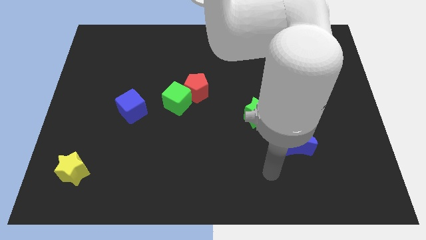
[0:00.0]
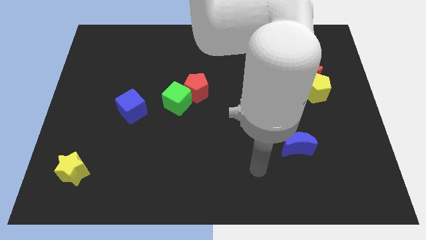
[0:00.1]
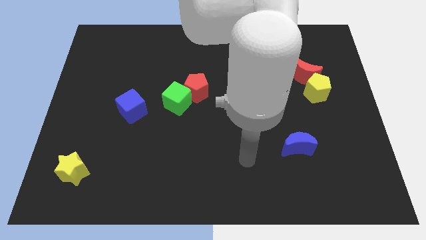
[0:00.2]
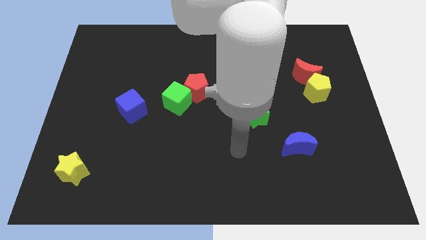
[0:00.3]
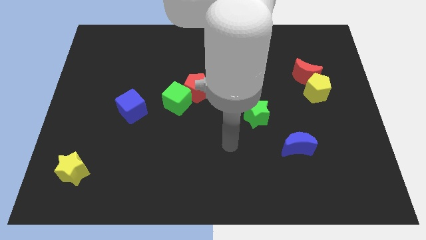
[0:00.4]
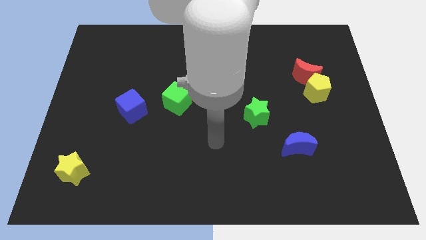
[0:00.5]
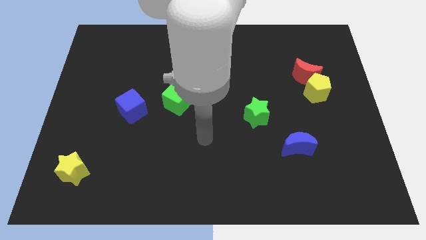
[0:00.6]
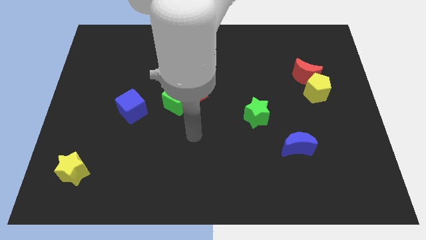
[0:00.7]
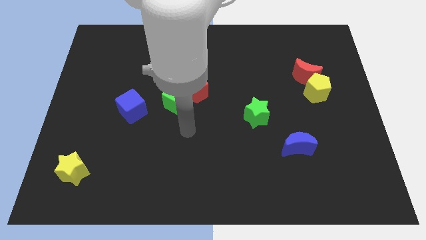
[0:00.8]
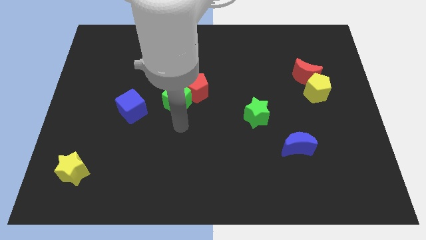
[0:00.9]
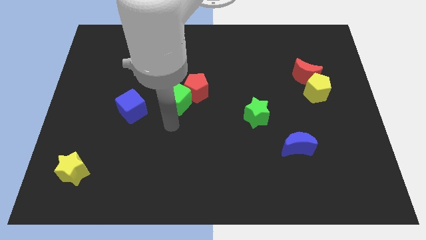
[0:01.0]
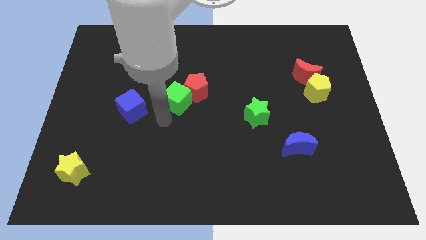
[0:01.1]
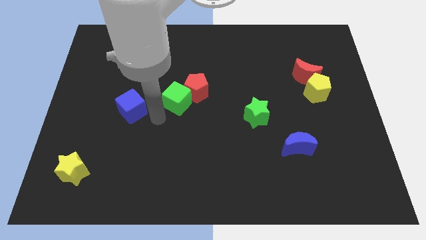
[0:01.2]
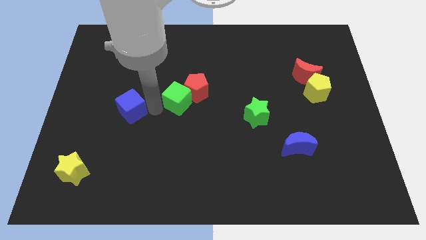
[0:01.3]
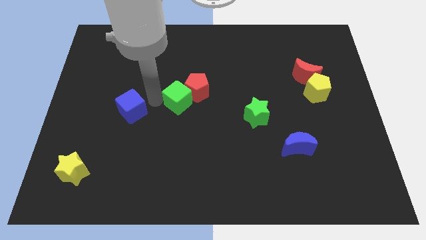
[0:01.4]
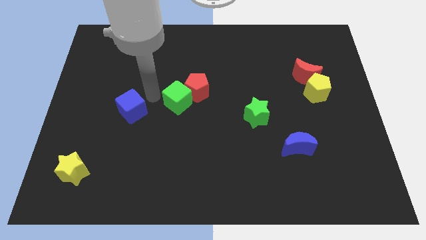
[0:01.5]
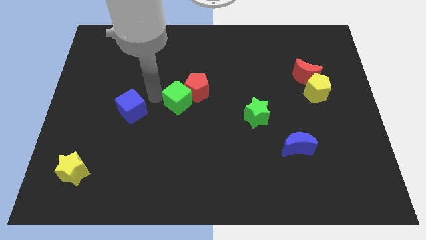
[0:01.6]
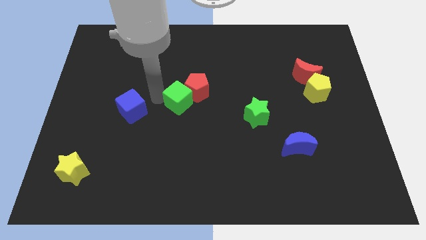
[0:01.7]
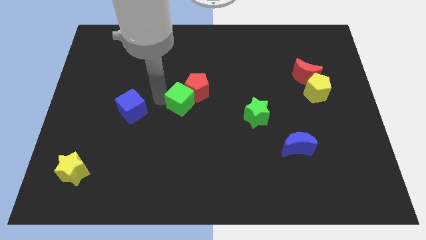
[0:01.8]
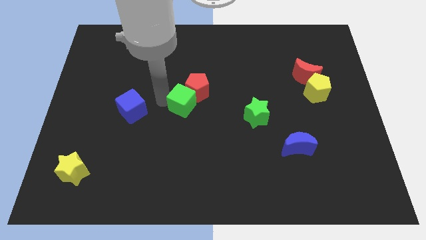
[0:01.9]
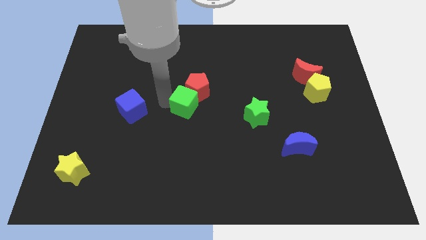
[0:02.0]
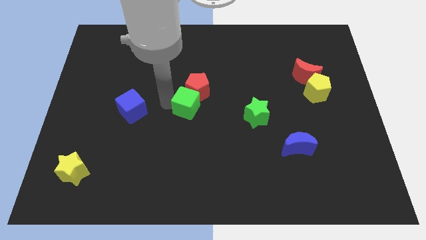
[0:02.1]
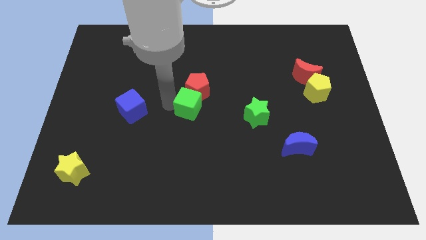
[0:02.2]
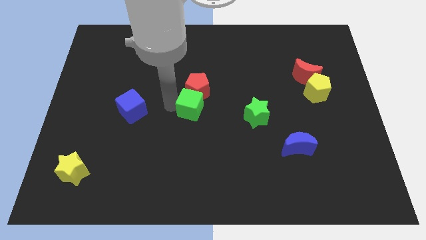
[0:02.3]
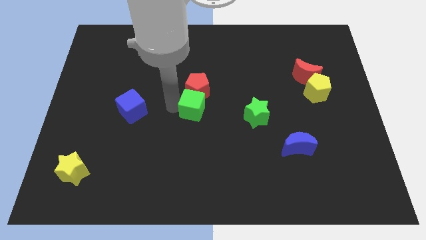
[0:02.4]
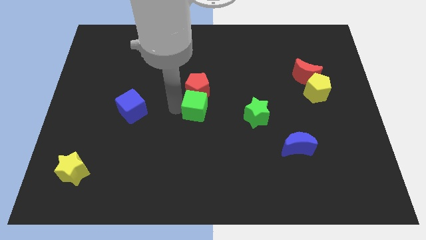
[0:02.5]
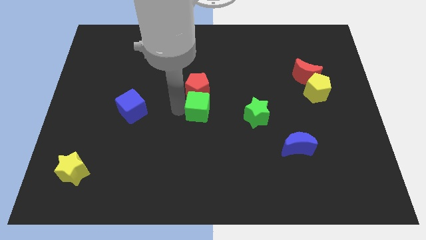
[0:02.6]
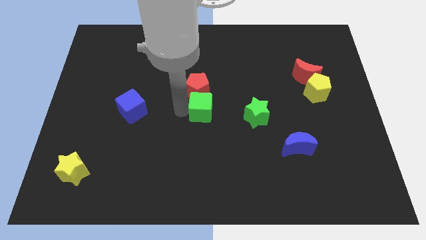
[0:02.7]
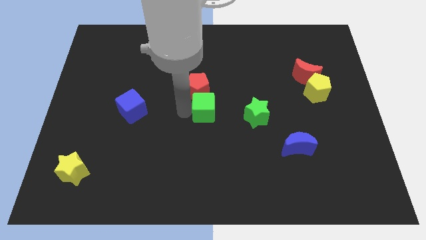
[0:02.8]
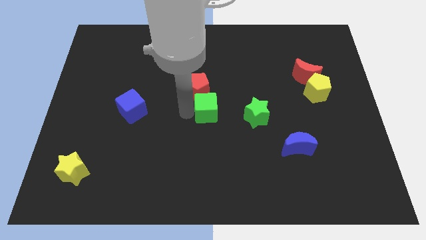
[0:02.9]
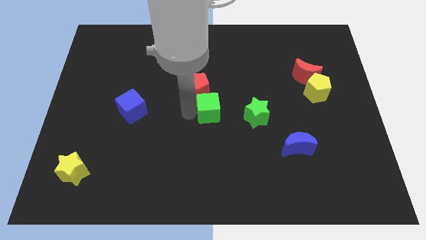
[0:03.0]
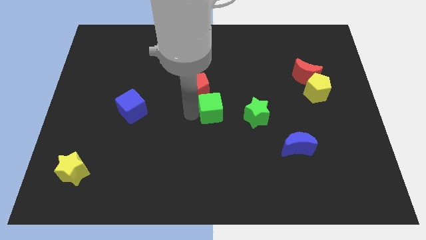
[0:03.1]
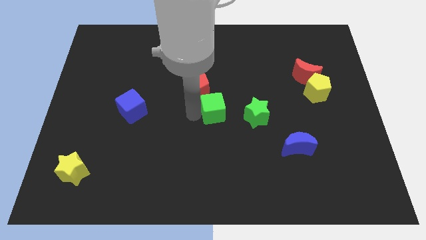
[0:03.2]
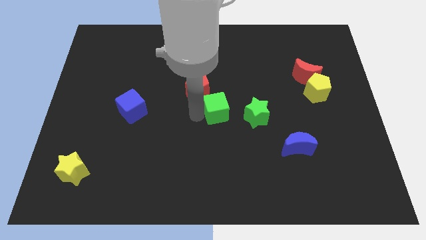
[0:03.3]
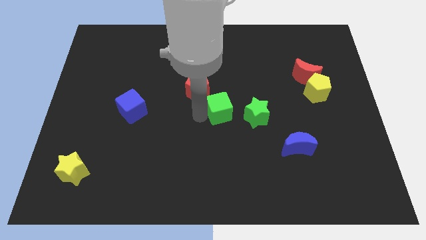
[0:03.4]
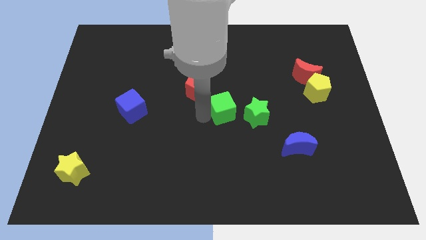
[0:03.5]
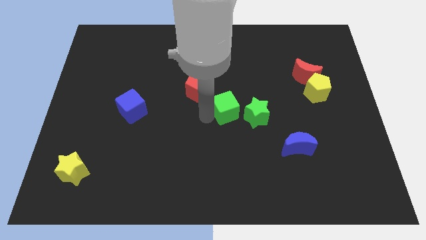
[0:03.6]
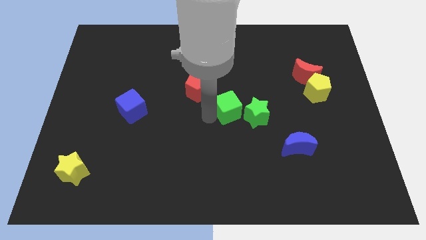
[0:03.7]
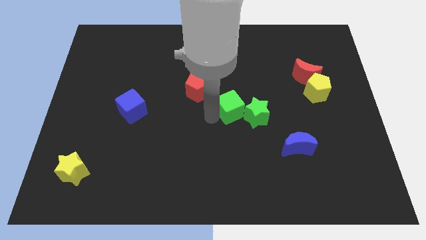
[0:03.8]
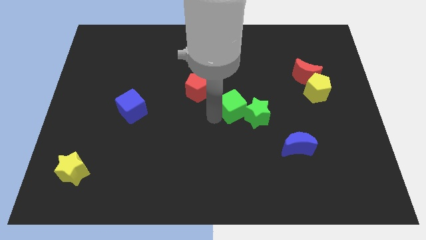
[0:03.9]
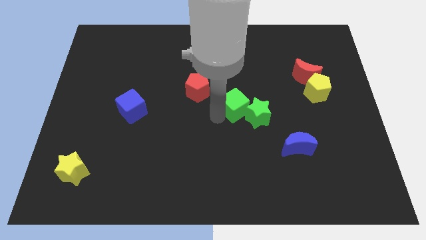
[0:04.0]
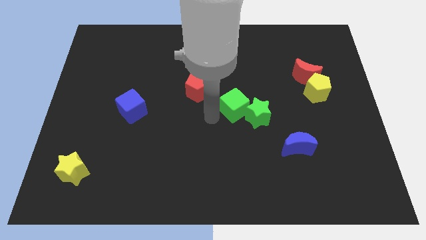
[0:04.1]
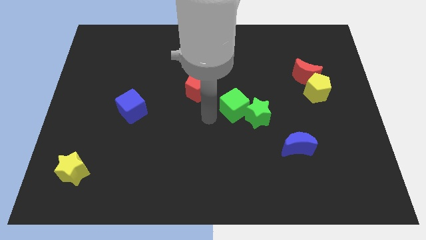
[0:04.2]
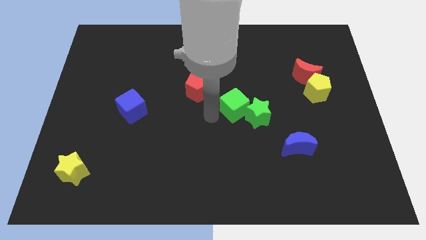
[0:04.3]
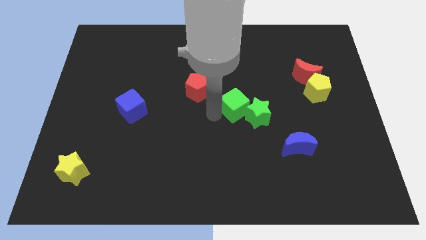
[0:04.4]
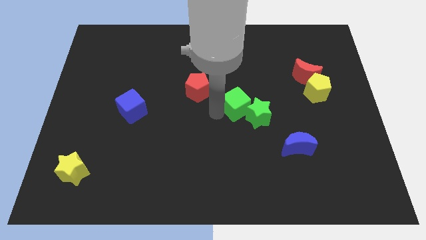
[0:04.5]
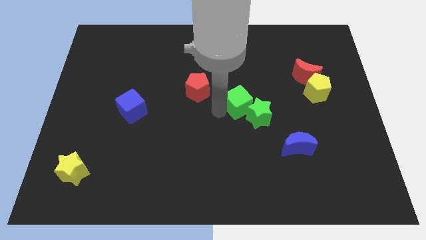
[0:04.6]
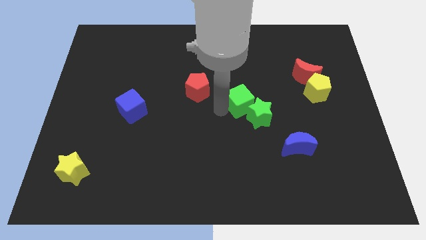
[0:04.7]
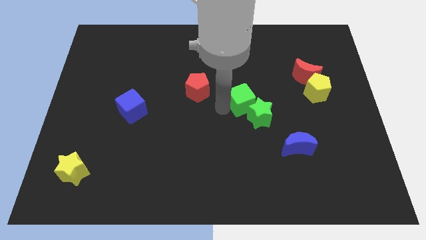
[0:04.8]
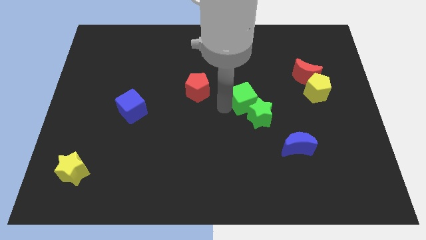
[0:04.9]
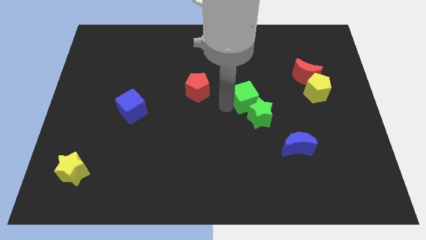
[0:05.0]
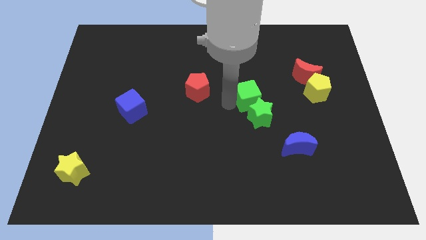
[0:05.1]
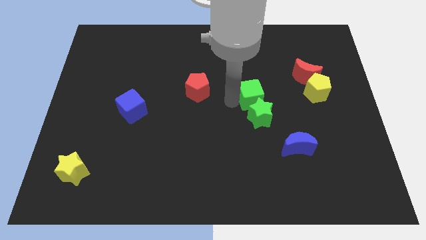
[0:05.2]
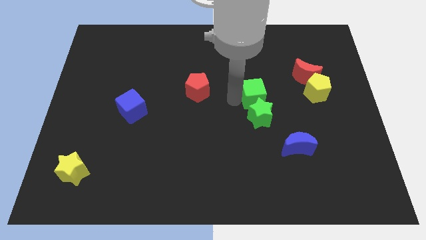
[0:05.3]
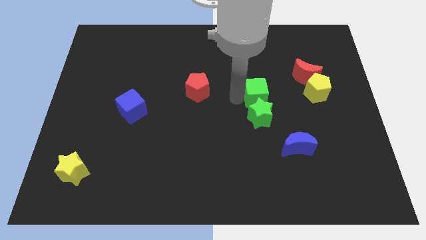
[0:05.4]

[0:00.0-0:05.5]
put the green cube diagonally up and to the right of the green star

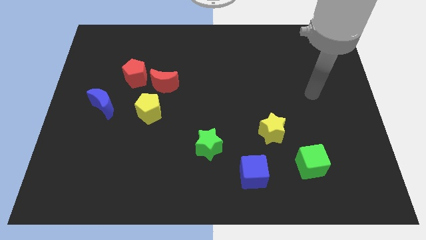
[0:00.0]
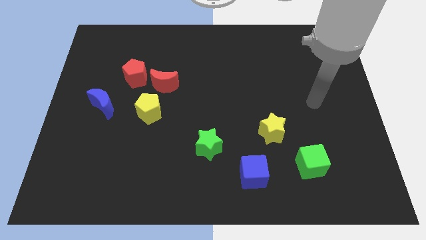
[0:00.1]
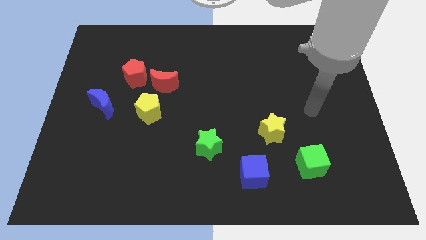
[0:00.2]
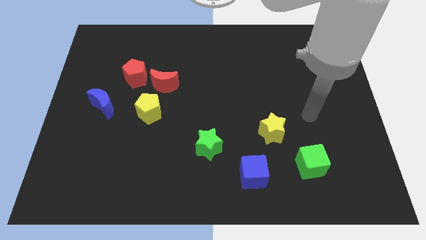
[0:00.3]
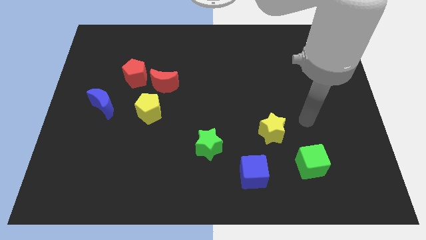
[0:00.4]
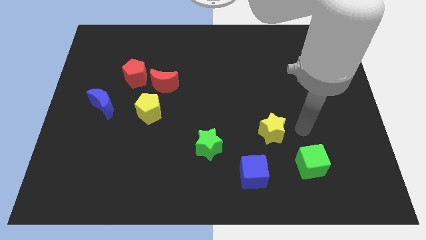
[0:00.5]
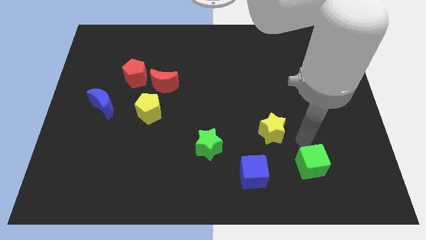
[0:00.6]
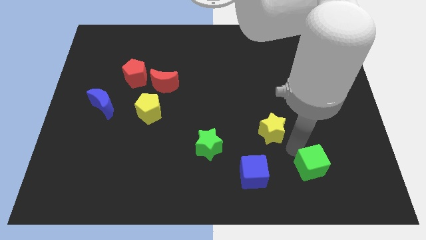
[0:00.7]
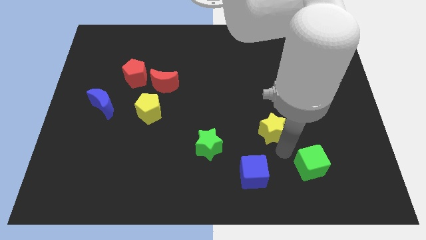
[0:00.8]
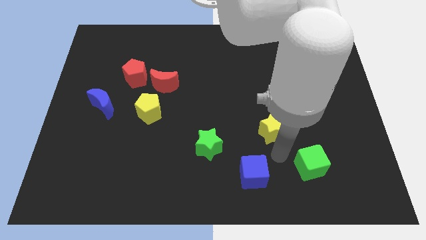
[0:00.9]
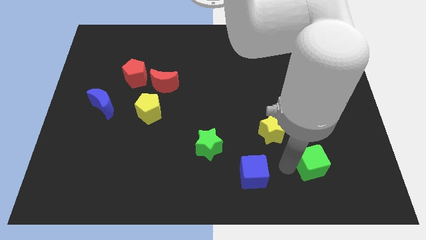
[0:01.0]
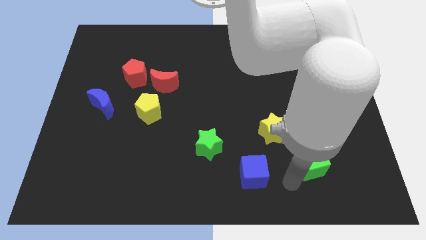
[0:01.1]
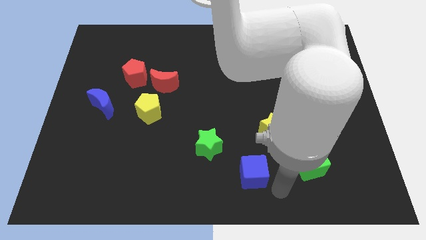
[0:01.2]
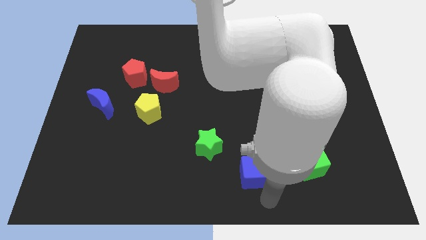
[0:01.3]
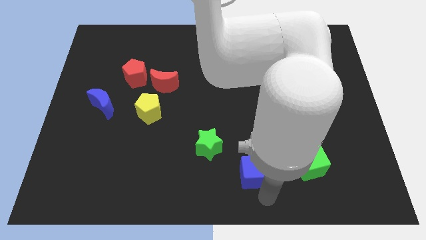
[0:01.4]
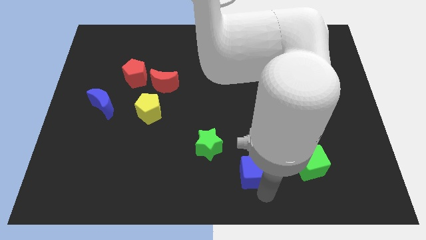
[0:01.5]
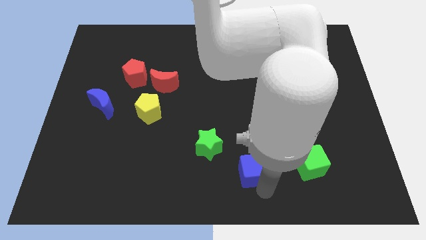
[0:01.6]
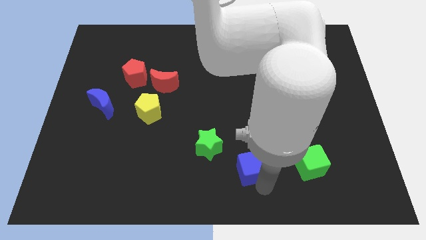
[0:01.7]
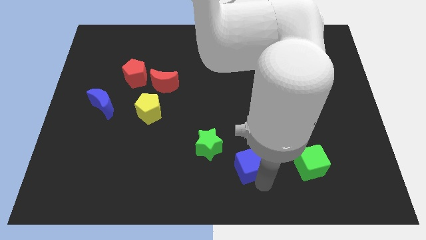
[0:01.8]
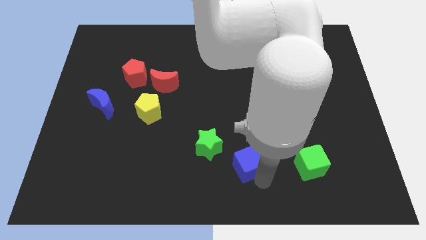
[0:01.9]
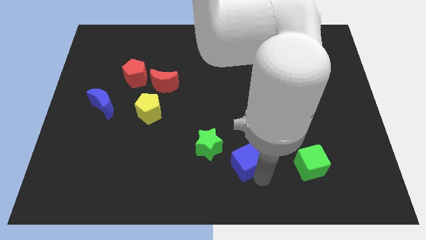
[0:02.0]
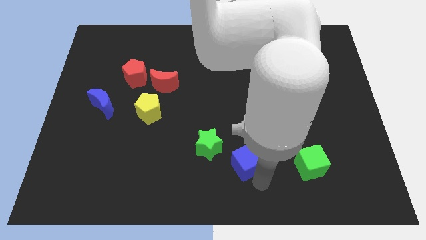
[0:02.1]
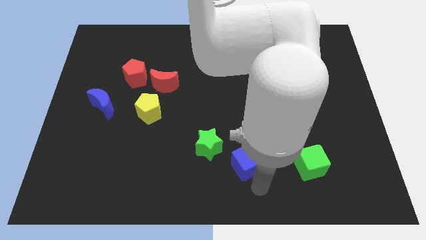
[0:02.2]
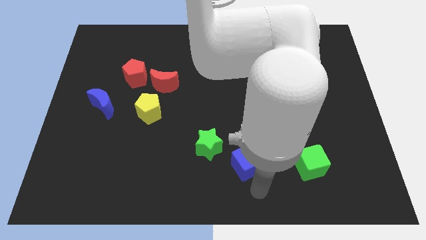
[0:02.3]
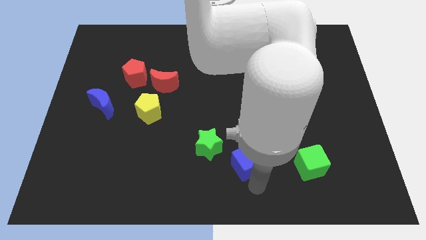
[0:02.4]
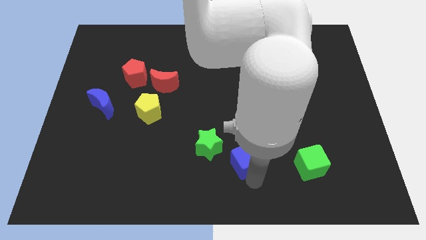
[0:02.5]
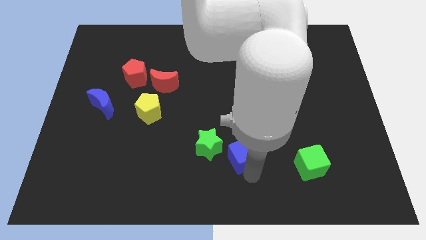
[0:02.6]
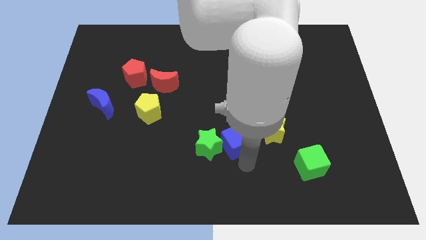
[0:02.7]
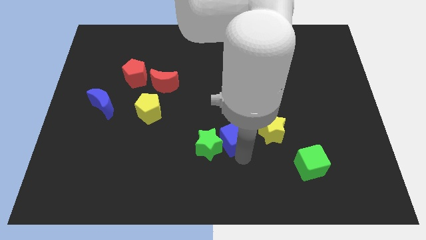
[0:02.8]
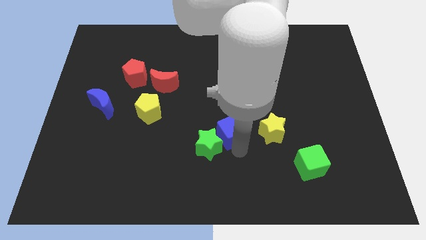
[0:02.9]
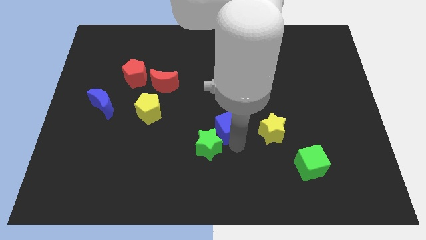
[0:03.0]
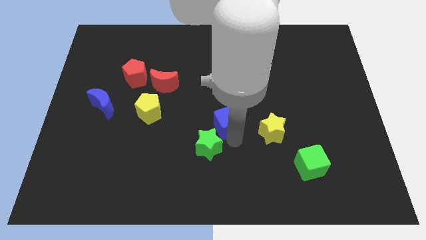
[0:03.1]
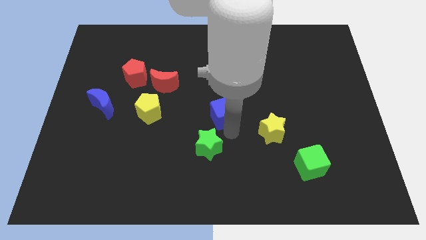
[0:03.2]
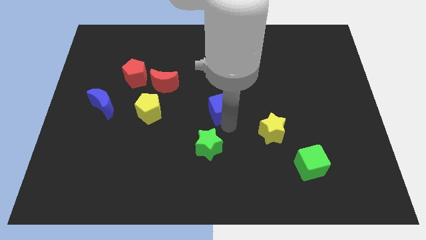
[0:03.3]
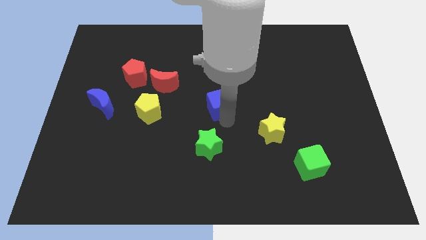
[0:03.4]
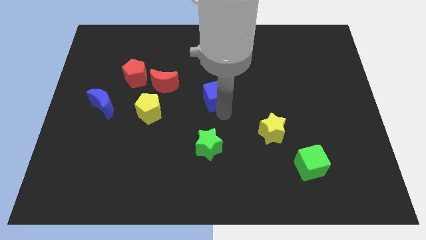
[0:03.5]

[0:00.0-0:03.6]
push the blue cube to the right side of the red moon
